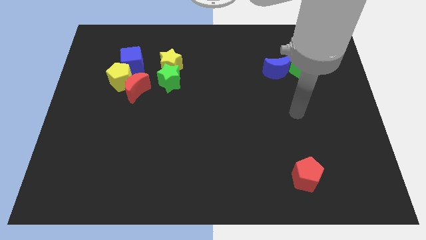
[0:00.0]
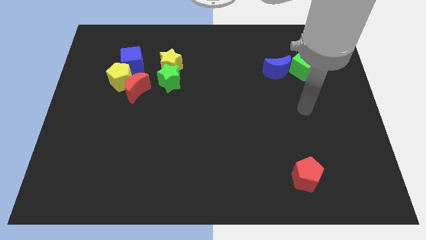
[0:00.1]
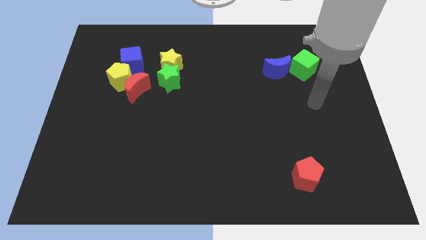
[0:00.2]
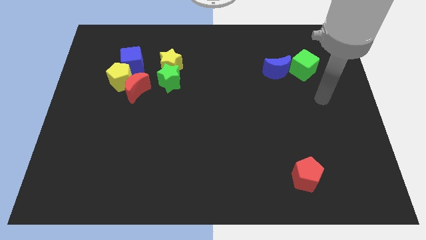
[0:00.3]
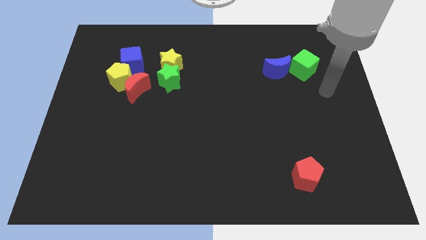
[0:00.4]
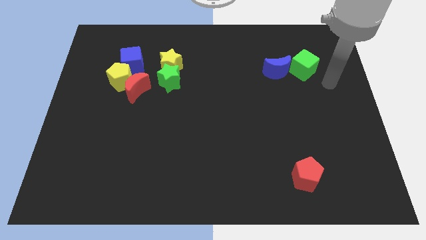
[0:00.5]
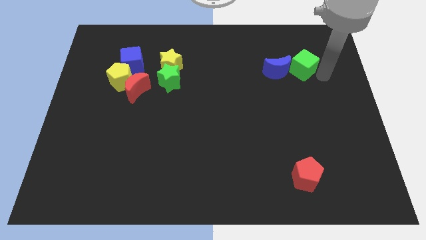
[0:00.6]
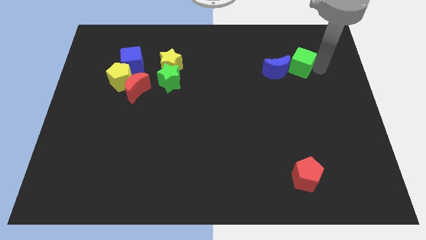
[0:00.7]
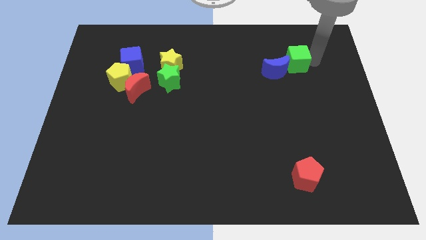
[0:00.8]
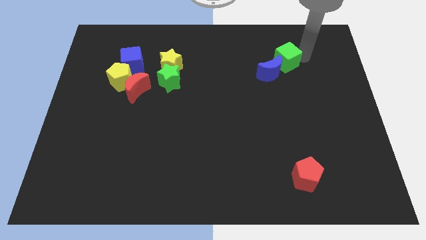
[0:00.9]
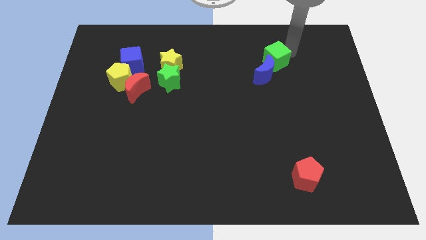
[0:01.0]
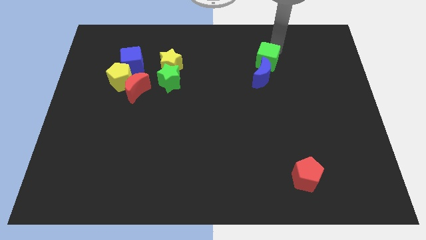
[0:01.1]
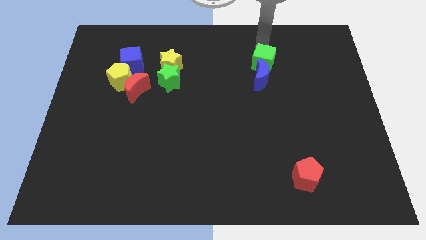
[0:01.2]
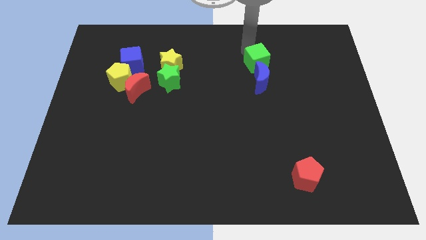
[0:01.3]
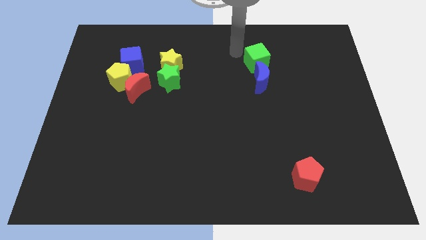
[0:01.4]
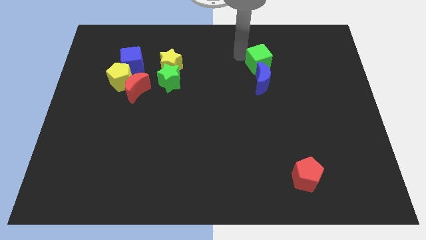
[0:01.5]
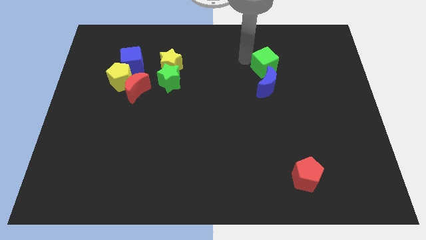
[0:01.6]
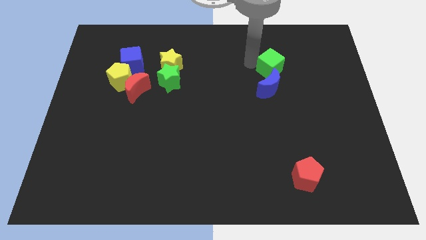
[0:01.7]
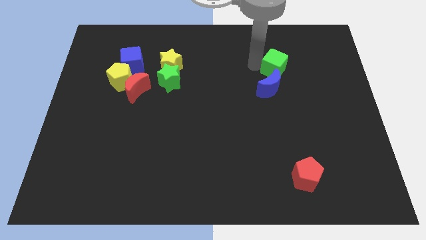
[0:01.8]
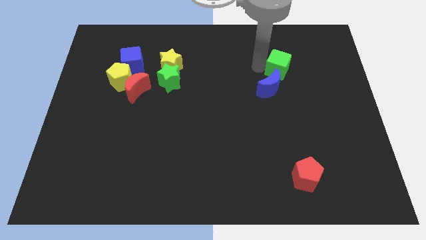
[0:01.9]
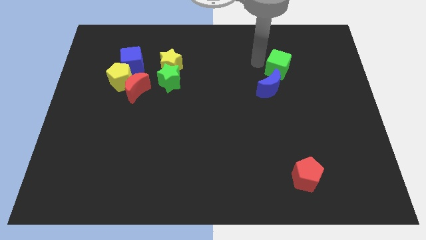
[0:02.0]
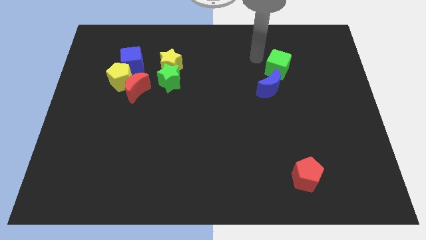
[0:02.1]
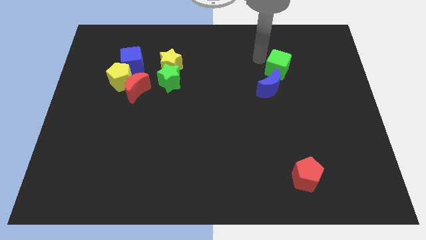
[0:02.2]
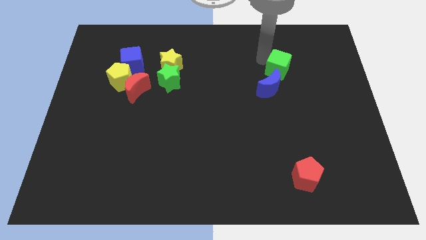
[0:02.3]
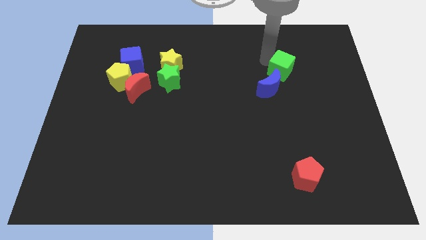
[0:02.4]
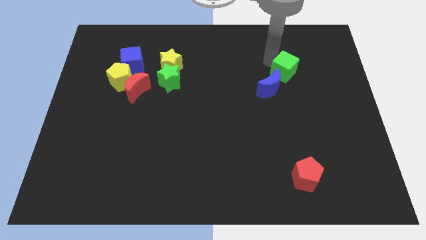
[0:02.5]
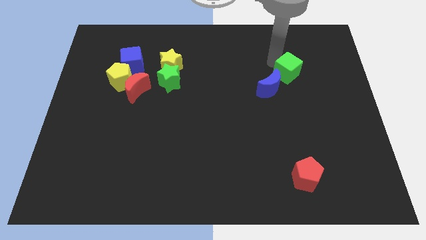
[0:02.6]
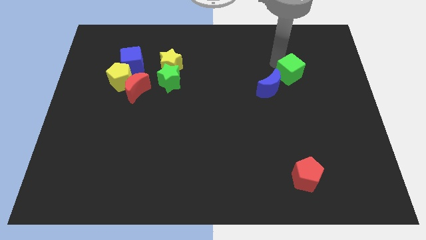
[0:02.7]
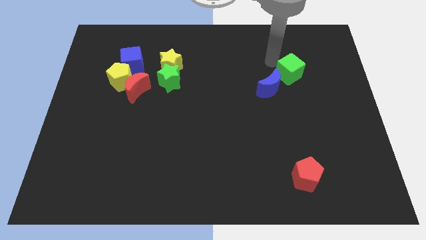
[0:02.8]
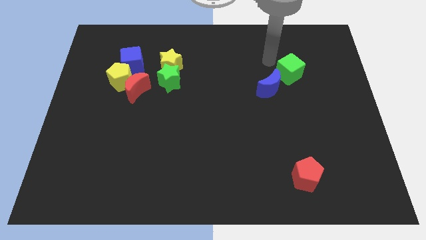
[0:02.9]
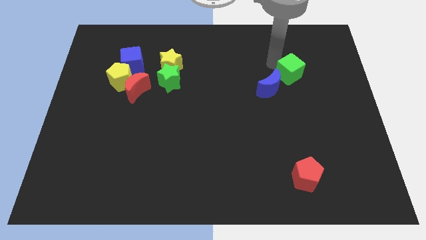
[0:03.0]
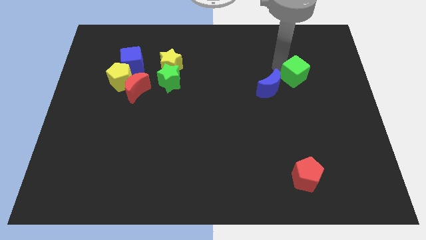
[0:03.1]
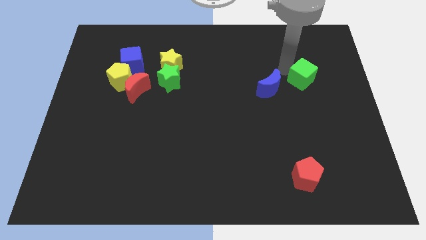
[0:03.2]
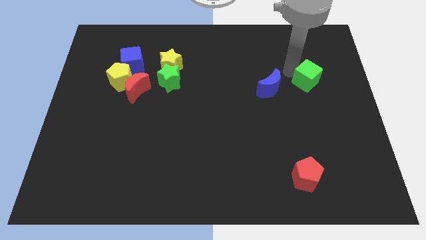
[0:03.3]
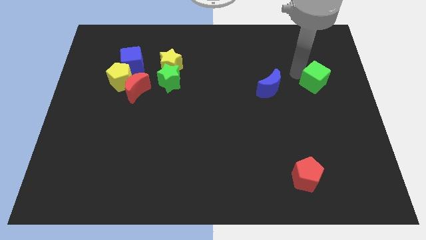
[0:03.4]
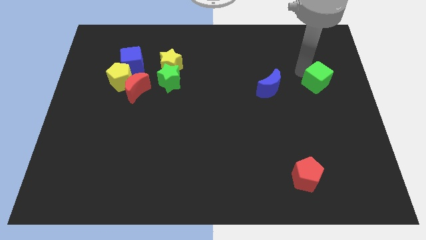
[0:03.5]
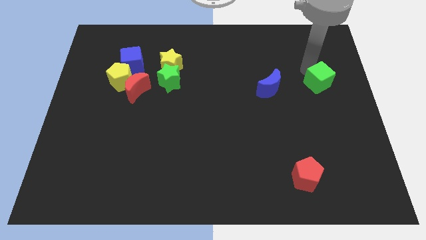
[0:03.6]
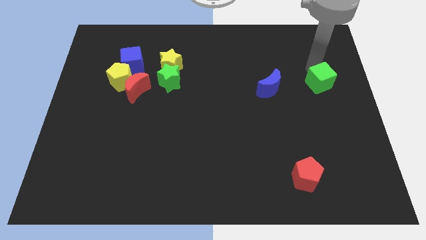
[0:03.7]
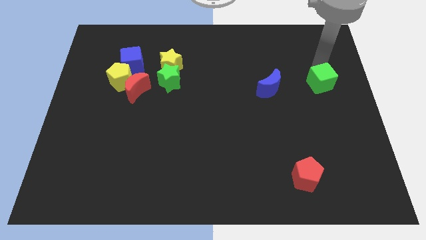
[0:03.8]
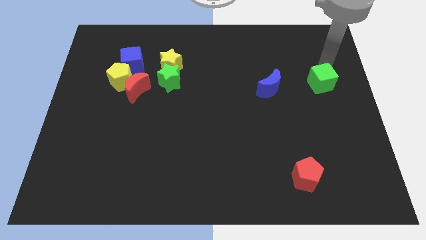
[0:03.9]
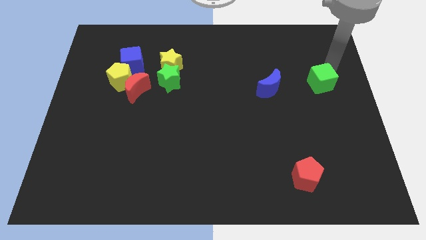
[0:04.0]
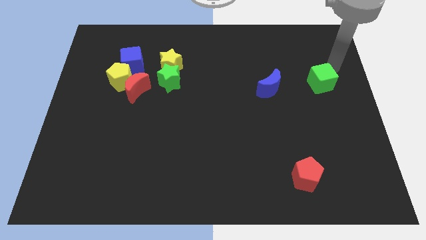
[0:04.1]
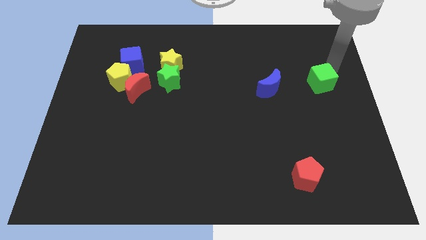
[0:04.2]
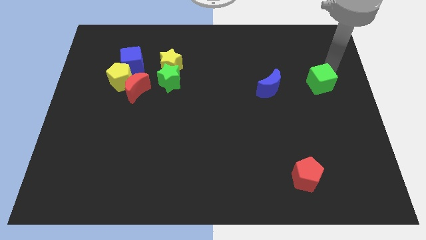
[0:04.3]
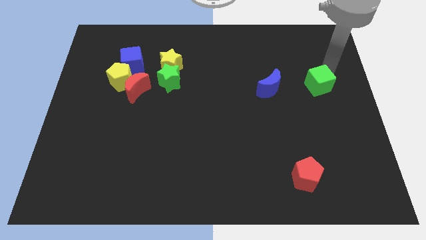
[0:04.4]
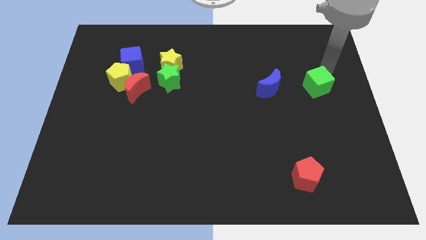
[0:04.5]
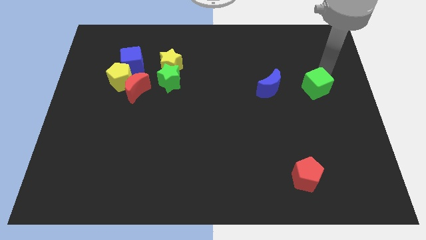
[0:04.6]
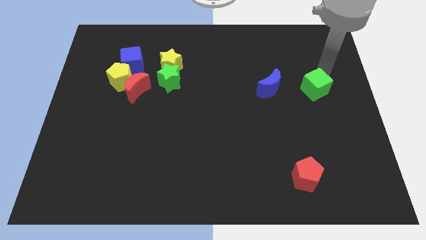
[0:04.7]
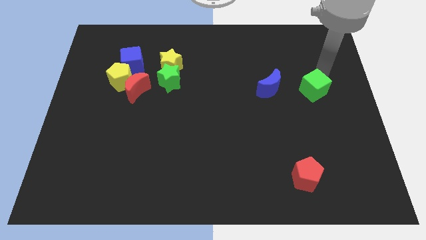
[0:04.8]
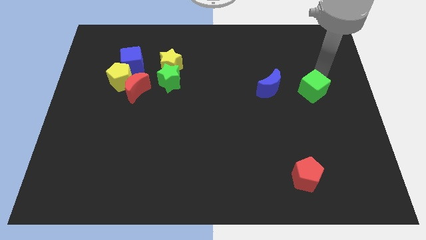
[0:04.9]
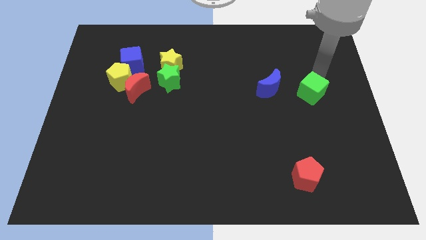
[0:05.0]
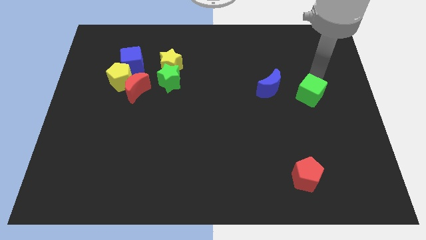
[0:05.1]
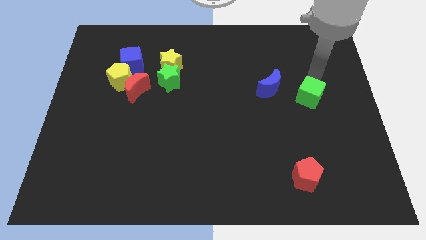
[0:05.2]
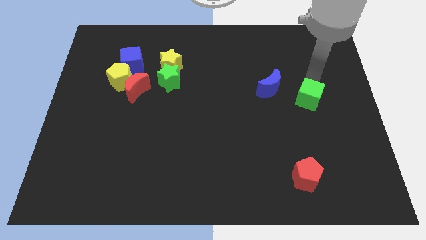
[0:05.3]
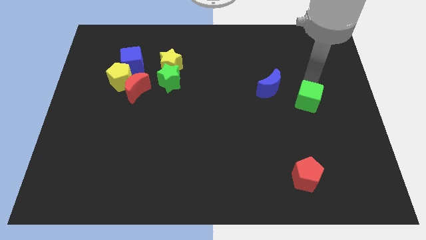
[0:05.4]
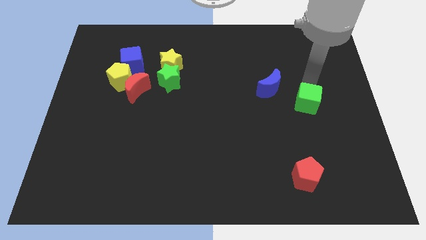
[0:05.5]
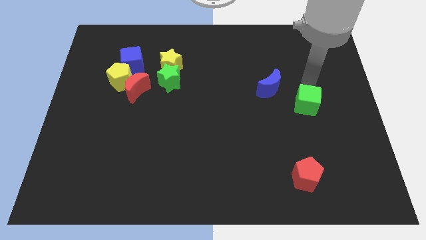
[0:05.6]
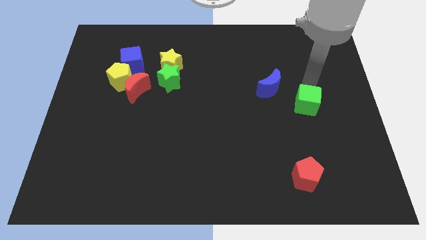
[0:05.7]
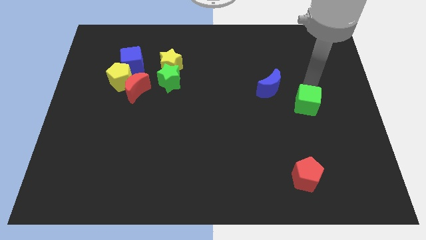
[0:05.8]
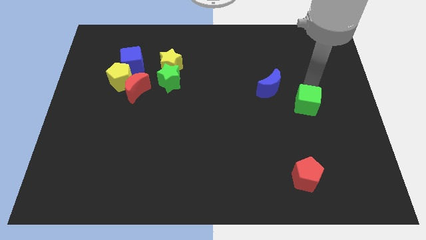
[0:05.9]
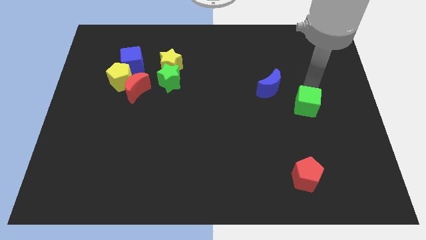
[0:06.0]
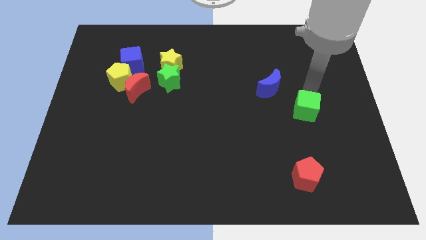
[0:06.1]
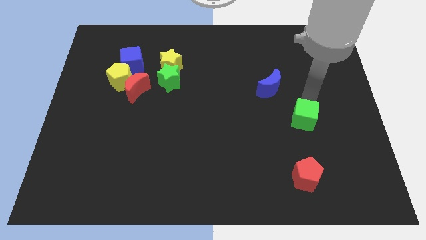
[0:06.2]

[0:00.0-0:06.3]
put the green cube above the red pentagon

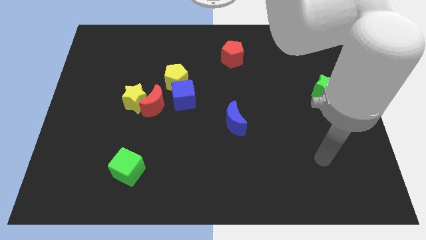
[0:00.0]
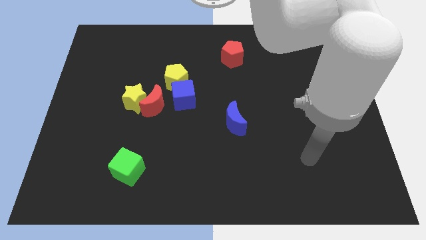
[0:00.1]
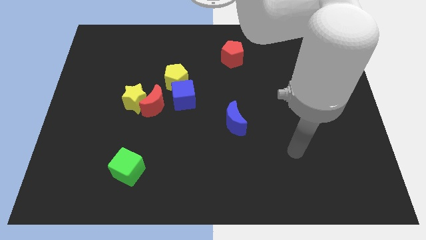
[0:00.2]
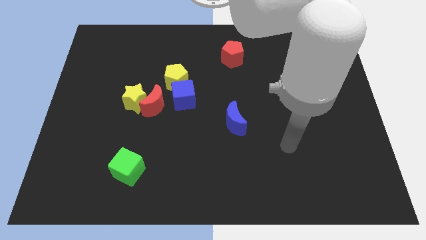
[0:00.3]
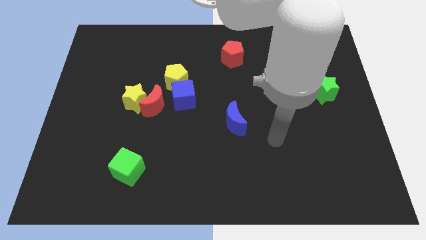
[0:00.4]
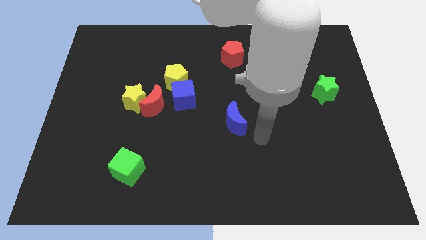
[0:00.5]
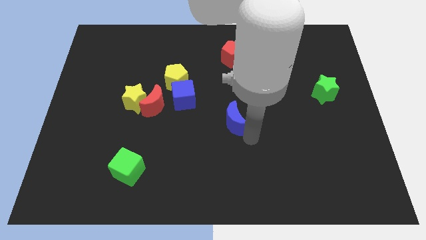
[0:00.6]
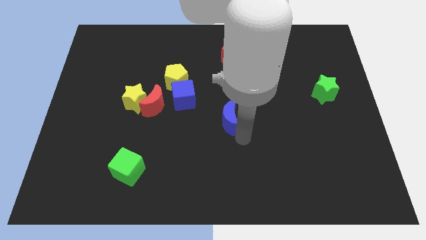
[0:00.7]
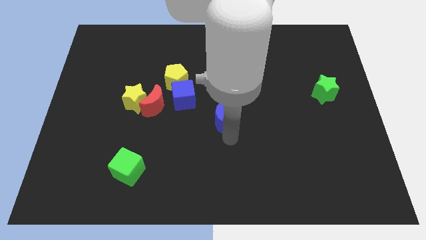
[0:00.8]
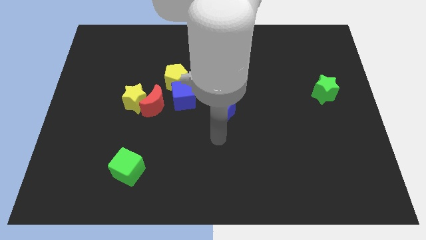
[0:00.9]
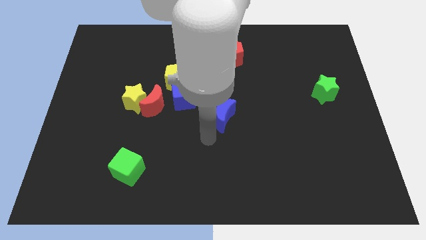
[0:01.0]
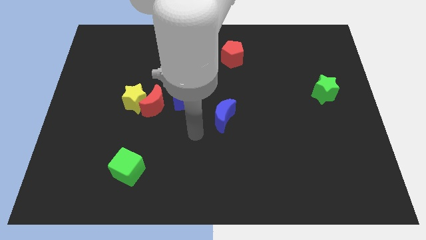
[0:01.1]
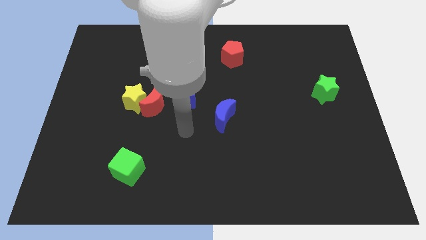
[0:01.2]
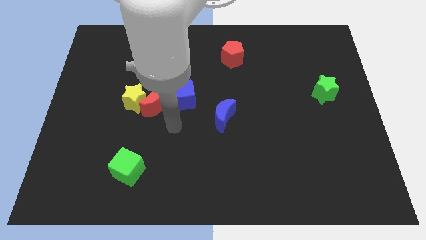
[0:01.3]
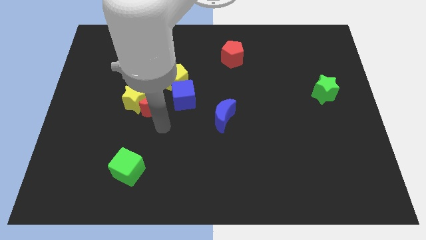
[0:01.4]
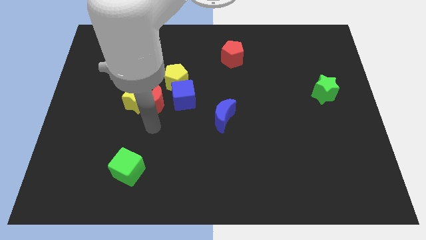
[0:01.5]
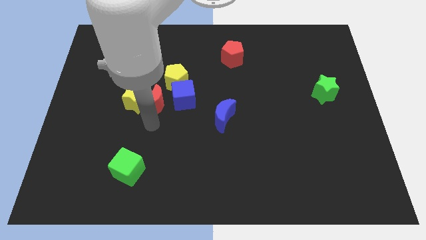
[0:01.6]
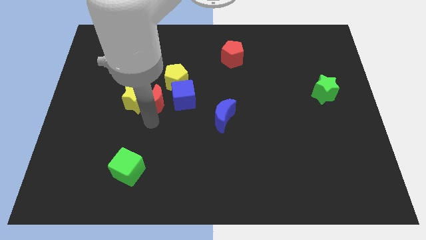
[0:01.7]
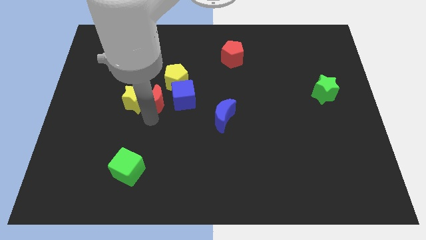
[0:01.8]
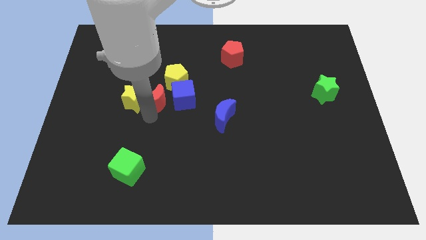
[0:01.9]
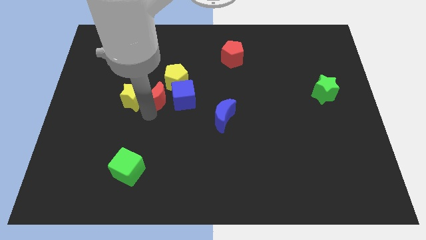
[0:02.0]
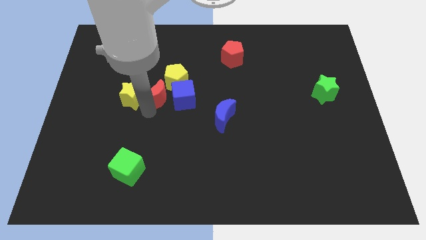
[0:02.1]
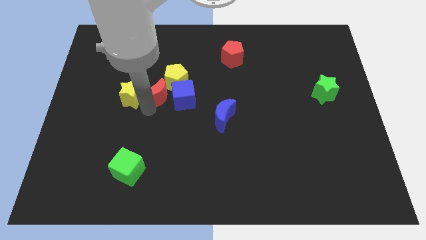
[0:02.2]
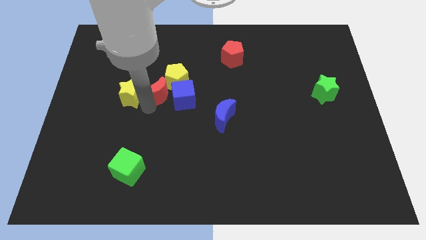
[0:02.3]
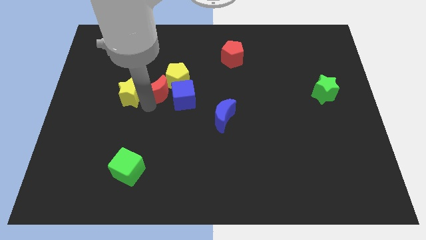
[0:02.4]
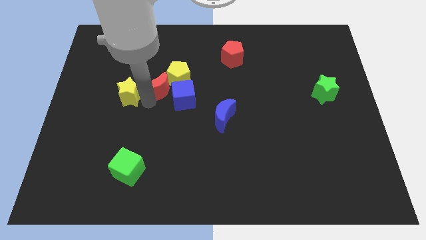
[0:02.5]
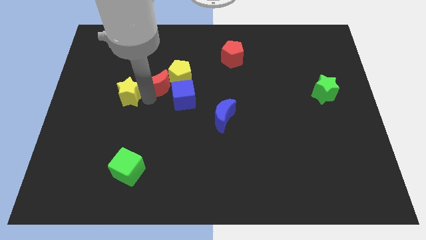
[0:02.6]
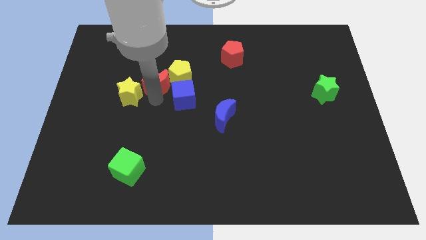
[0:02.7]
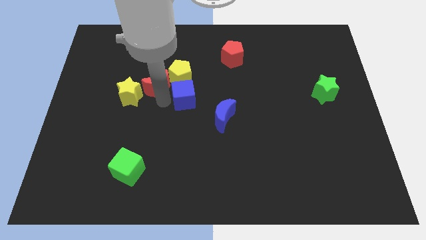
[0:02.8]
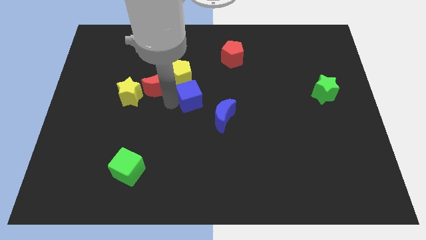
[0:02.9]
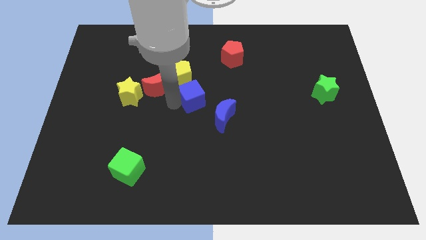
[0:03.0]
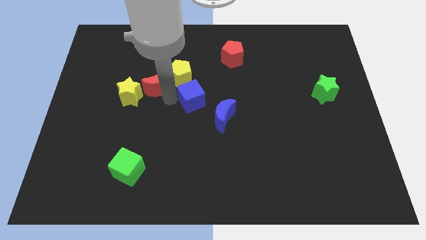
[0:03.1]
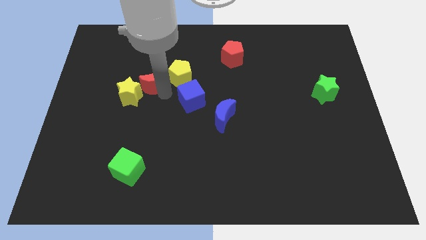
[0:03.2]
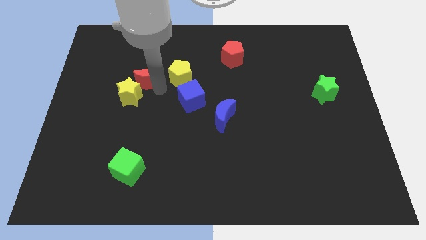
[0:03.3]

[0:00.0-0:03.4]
slide the red moon to the top side of the yellow star
